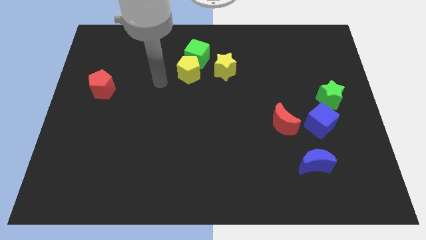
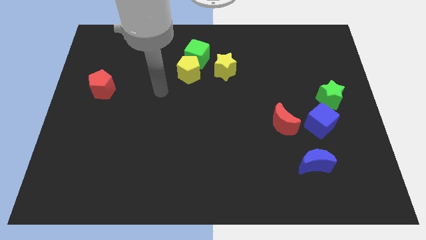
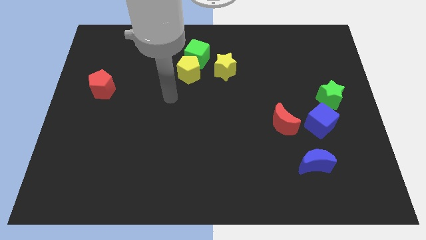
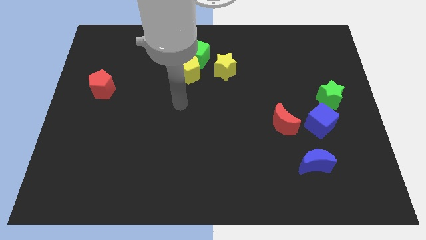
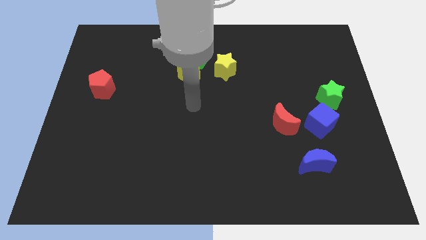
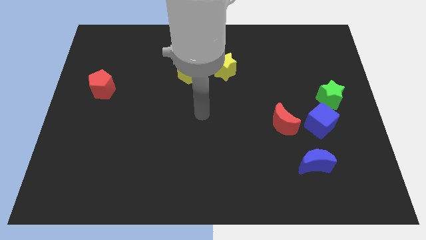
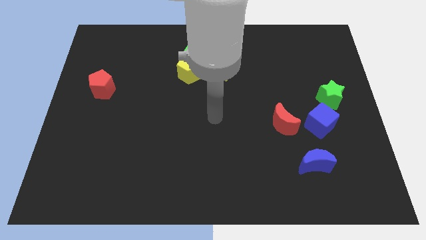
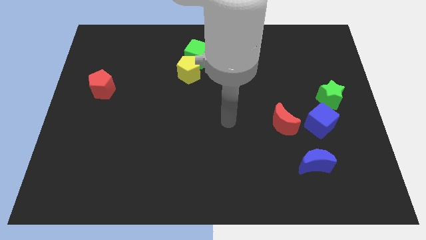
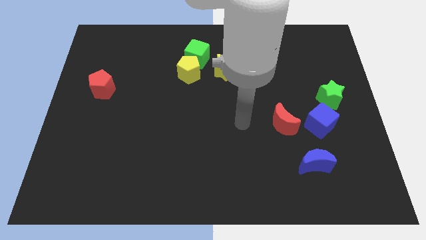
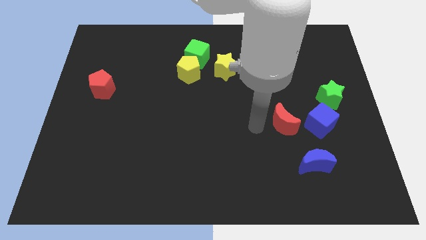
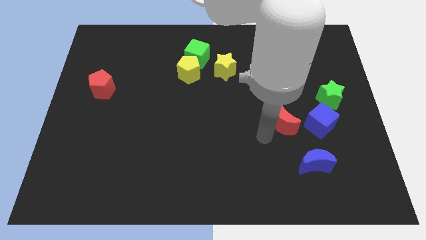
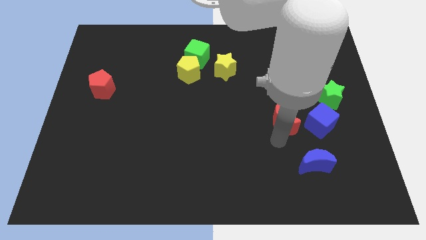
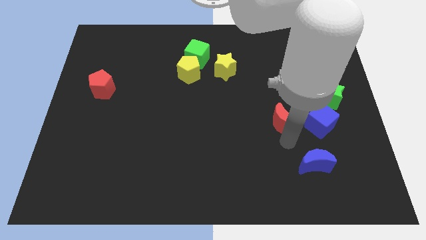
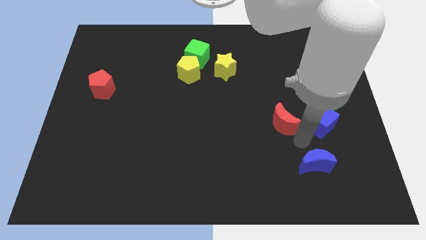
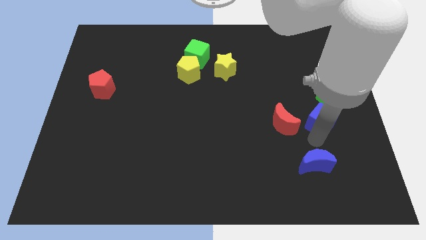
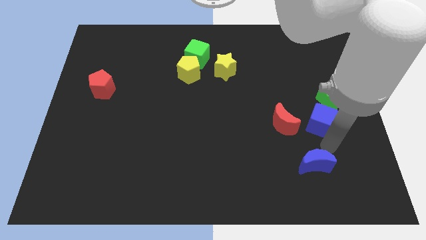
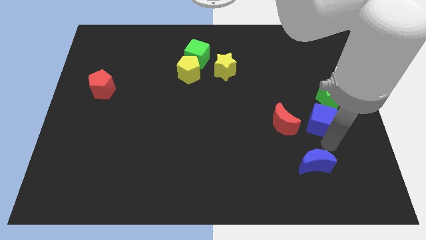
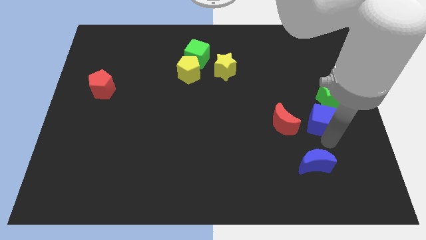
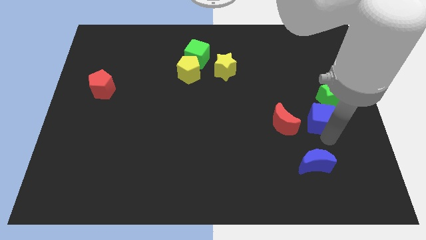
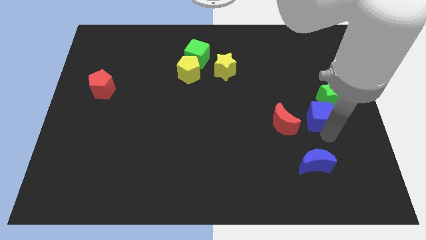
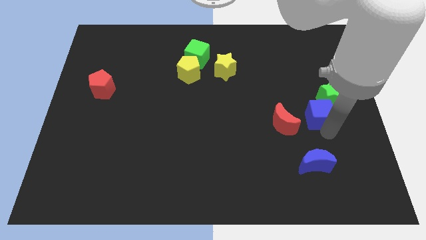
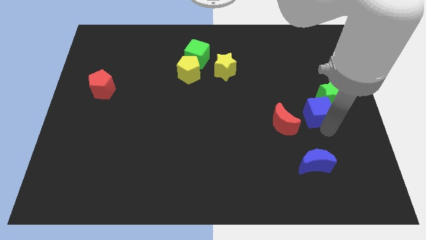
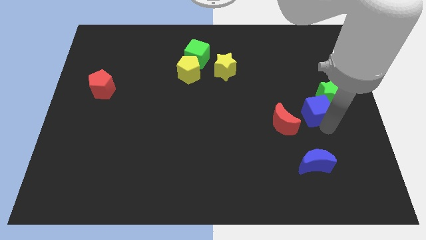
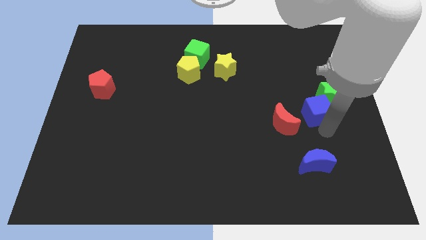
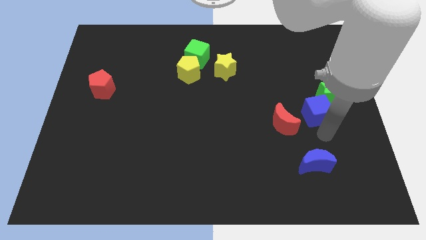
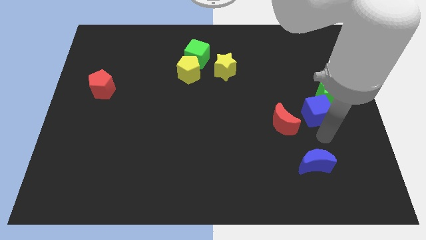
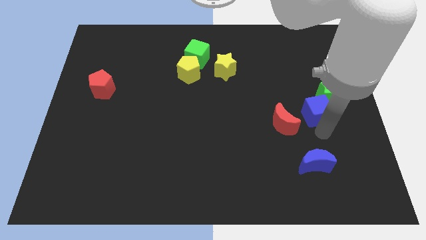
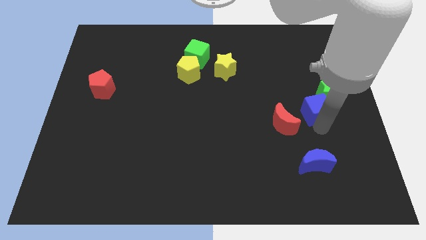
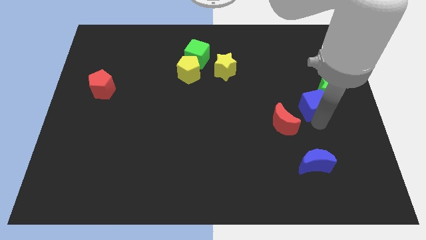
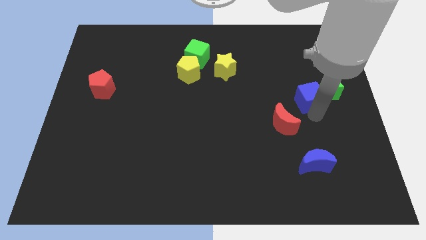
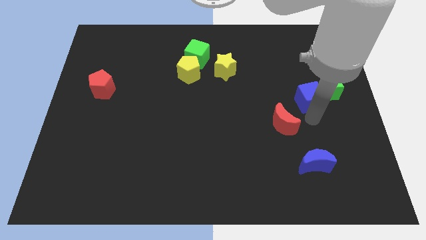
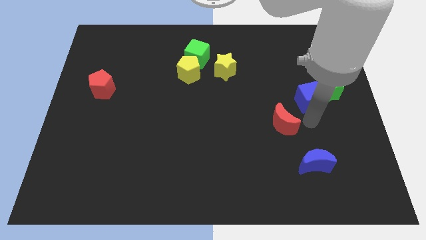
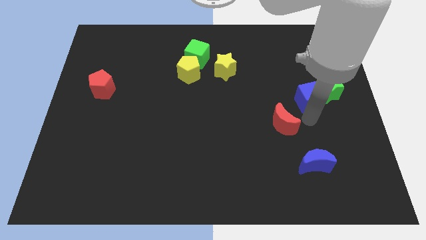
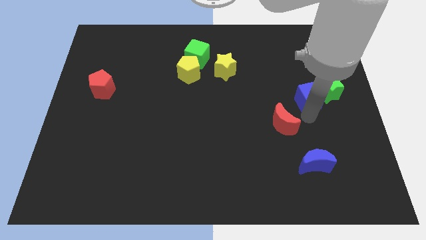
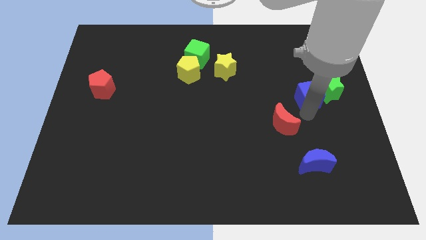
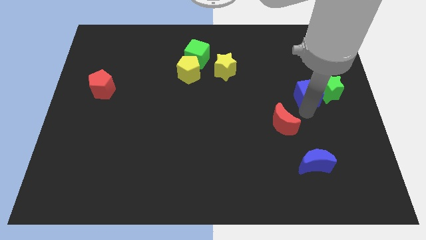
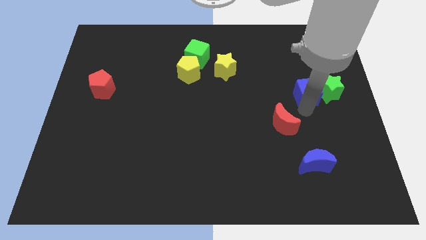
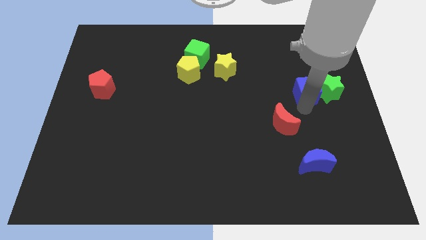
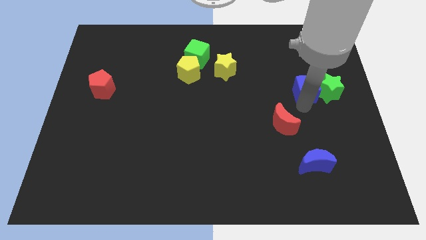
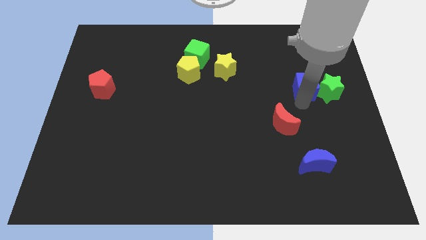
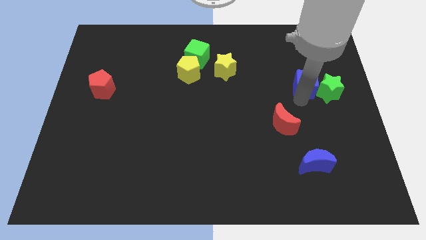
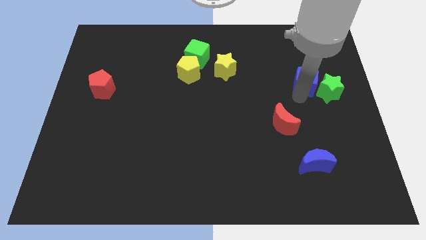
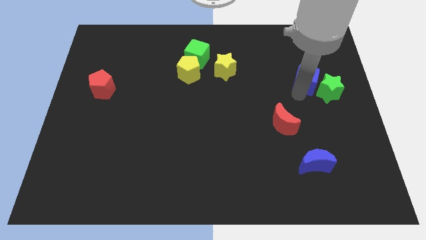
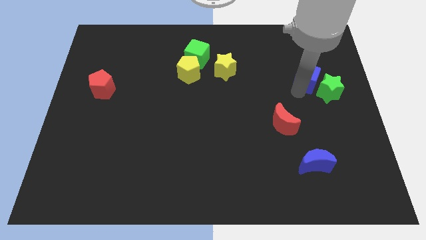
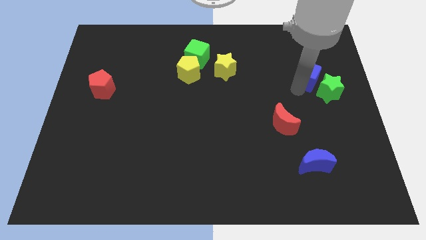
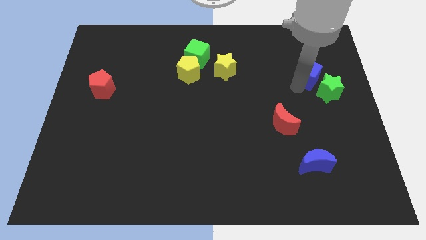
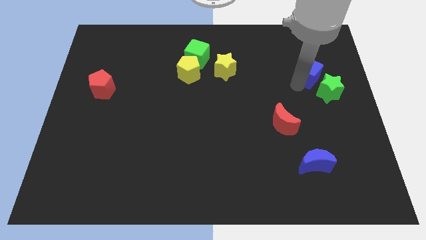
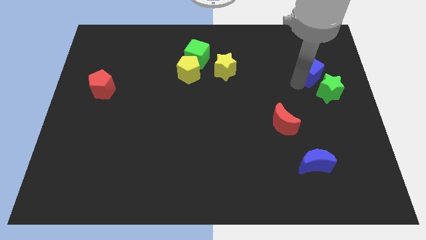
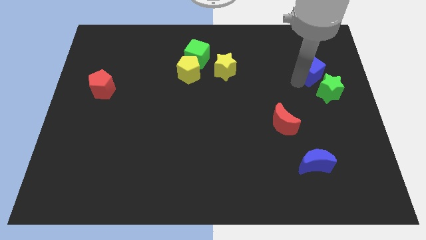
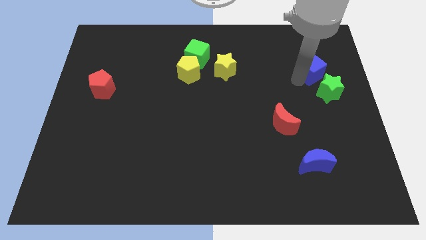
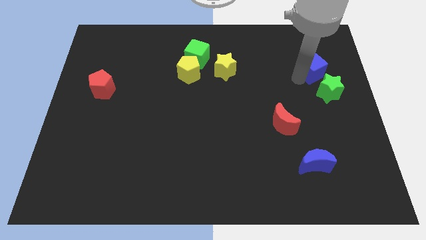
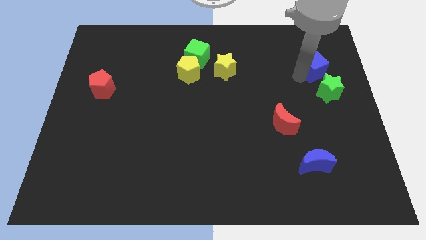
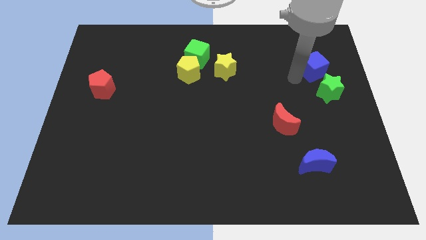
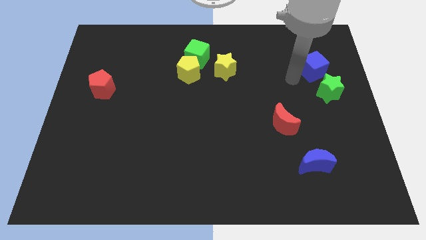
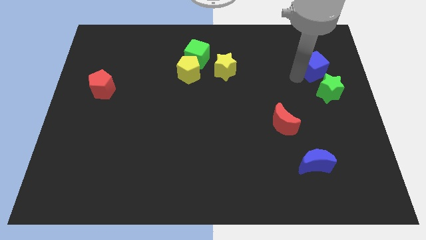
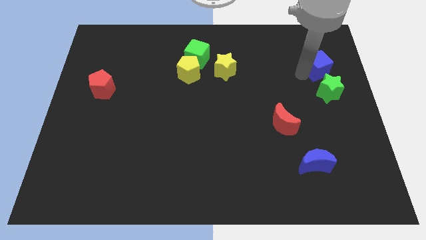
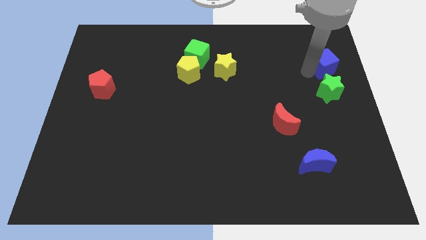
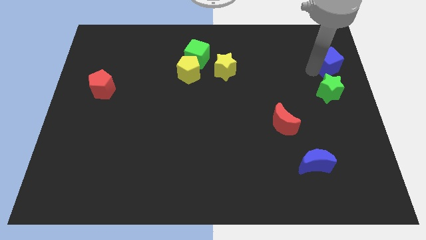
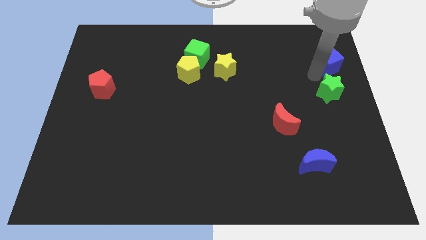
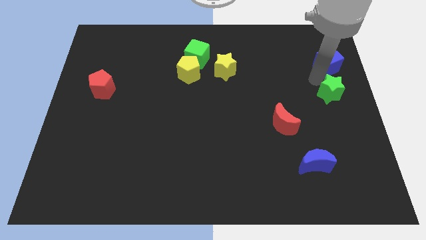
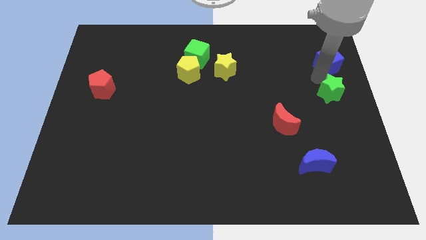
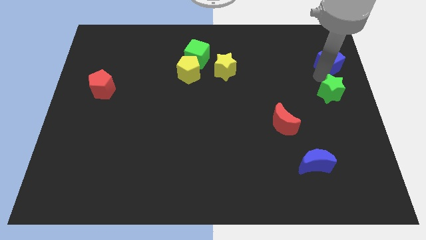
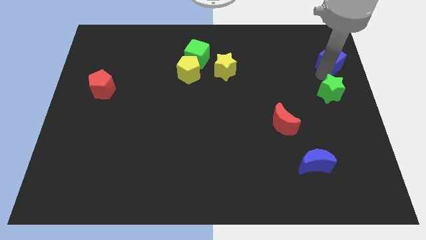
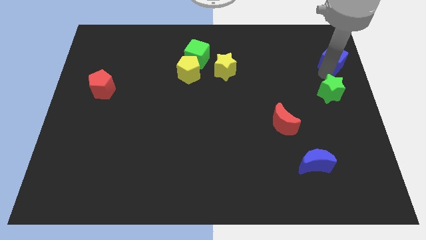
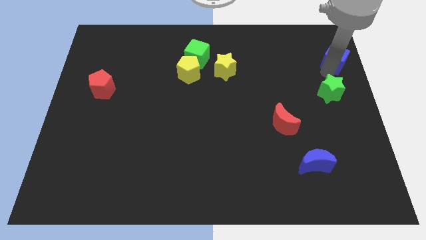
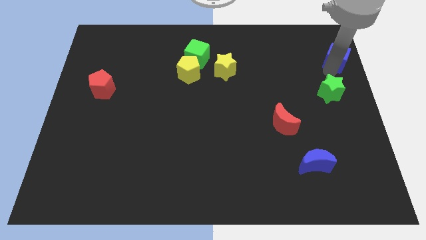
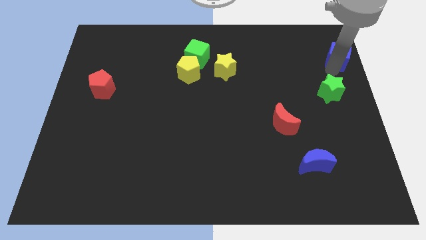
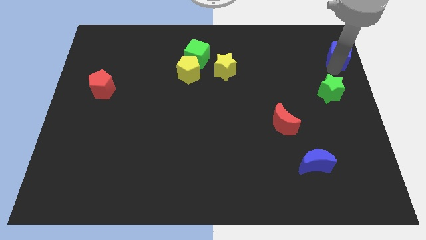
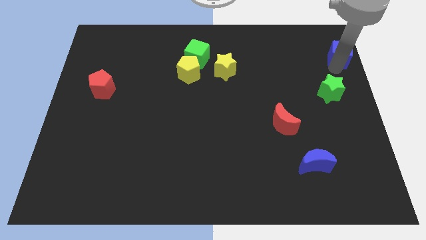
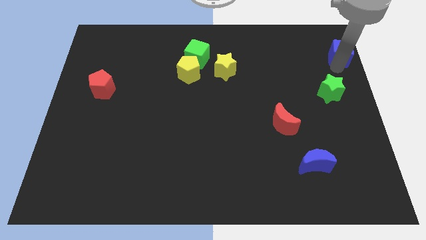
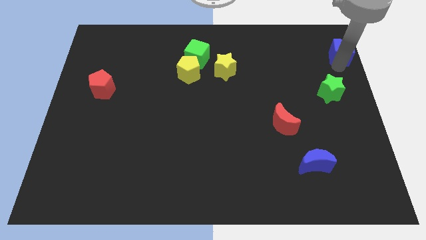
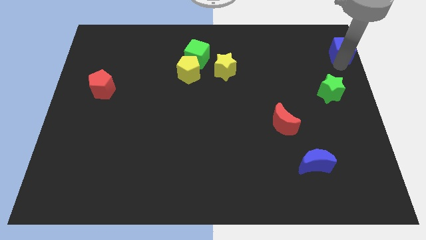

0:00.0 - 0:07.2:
put the blue cube to the top right corner
